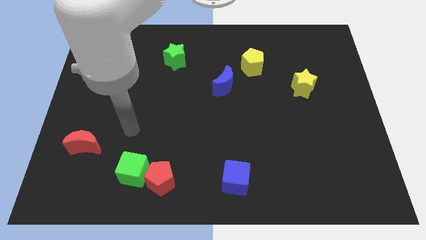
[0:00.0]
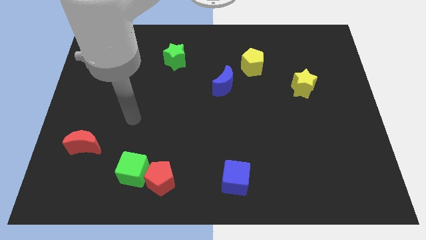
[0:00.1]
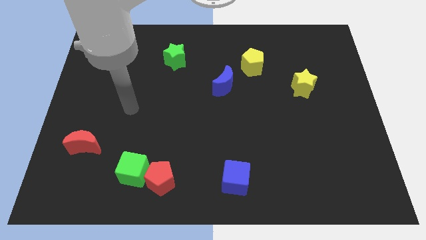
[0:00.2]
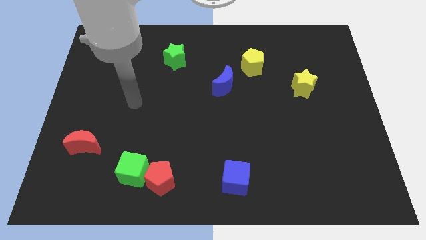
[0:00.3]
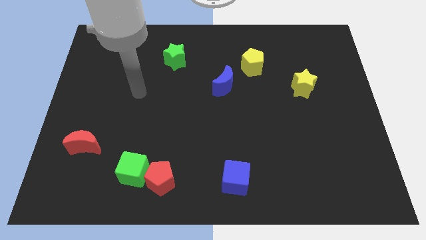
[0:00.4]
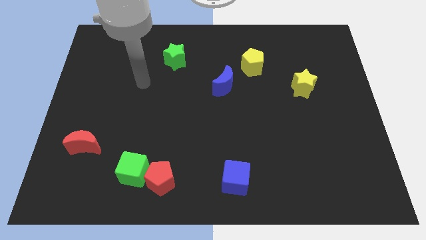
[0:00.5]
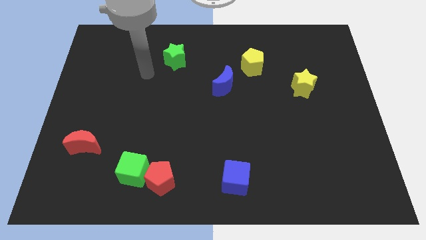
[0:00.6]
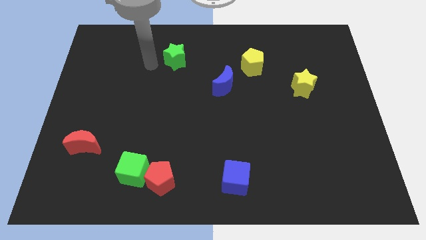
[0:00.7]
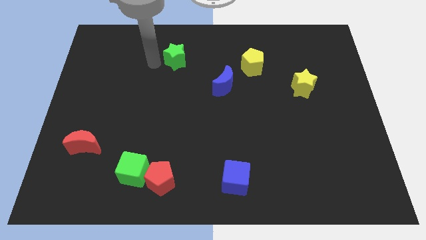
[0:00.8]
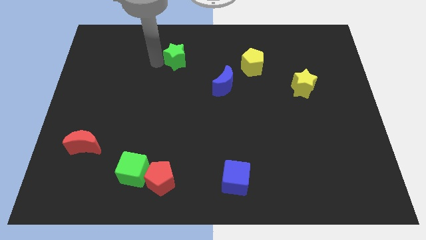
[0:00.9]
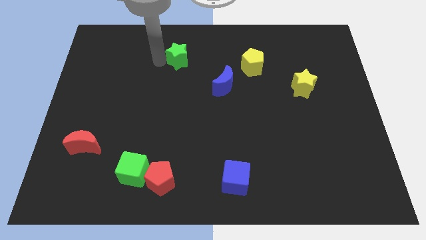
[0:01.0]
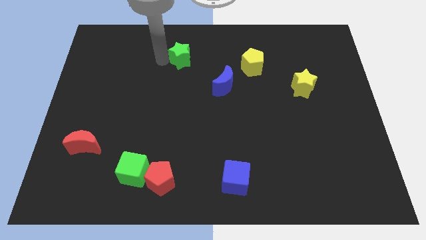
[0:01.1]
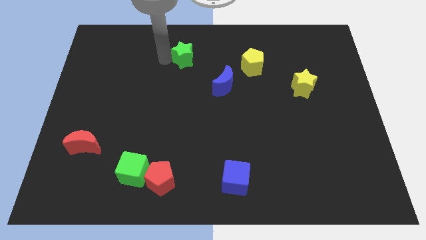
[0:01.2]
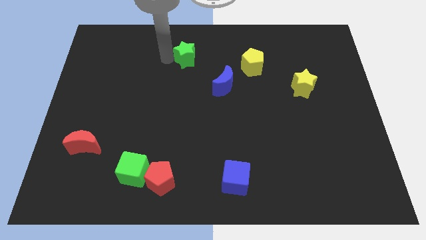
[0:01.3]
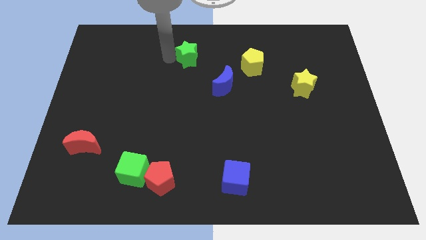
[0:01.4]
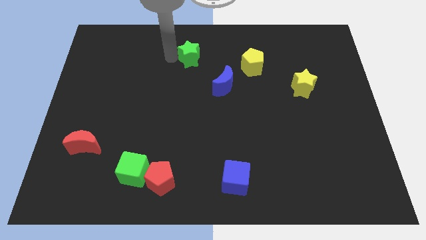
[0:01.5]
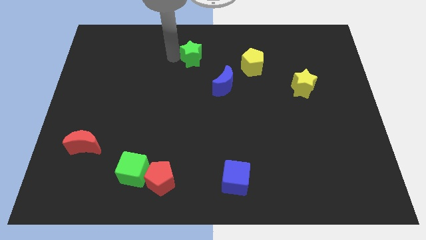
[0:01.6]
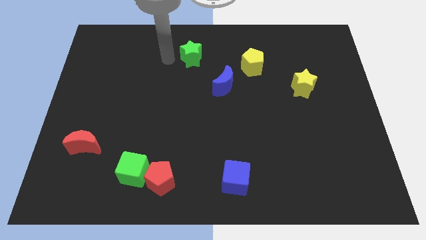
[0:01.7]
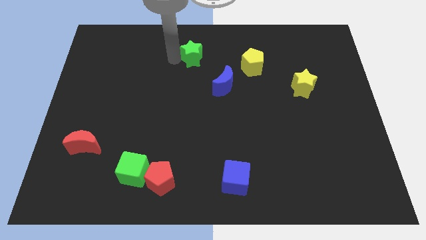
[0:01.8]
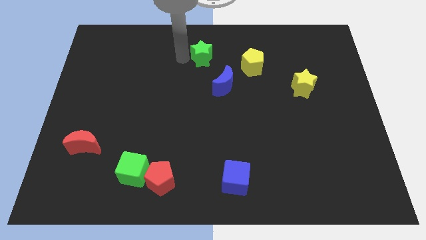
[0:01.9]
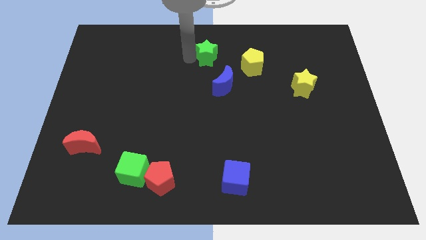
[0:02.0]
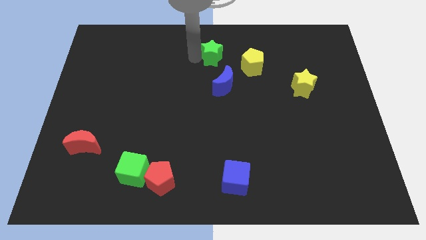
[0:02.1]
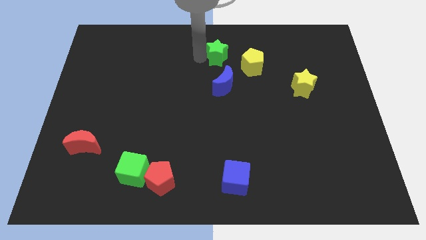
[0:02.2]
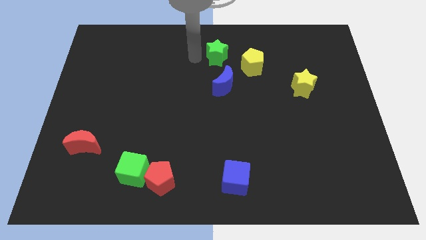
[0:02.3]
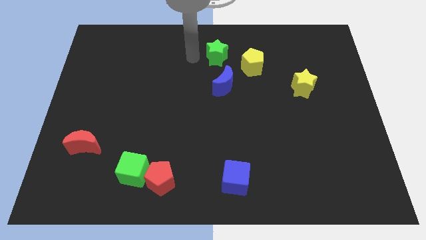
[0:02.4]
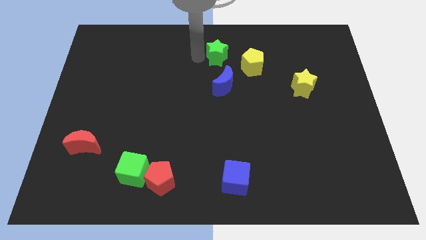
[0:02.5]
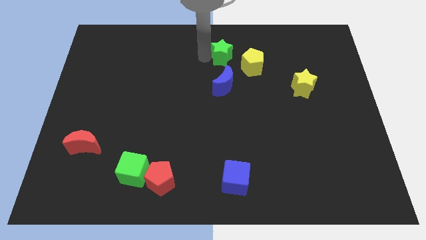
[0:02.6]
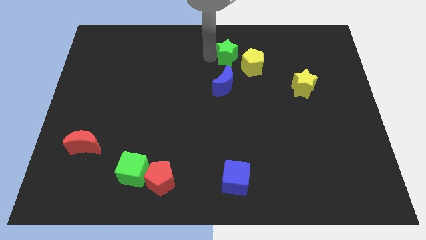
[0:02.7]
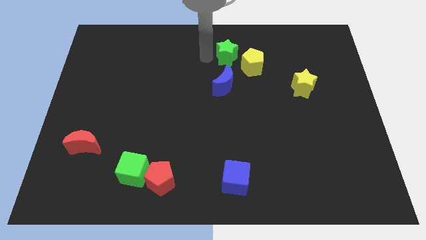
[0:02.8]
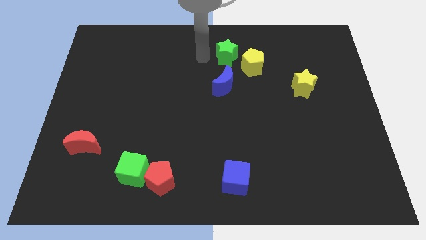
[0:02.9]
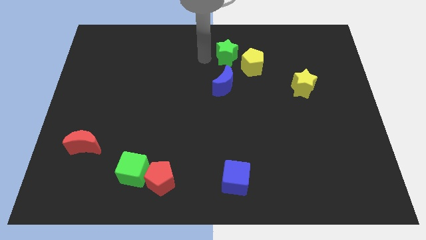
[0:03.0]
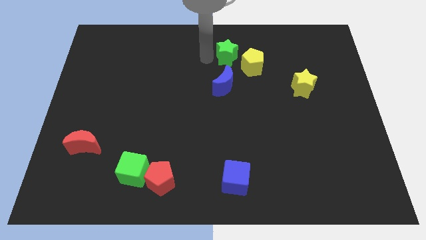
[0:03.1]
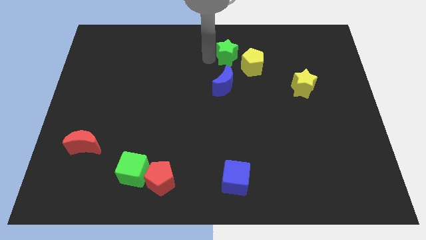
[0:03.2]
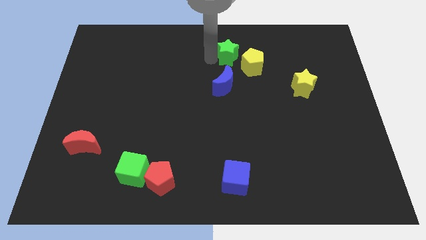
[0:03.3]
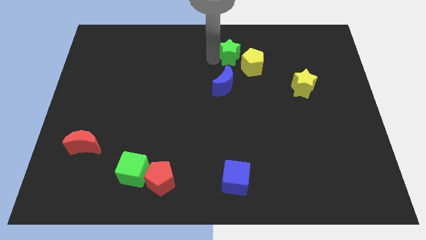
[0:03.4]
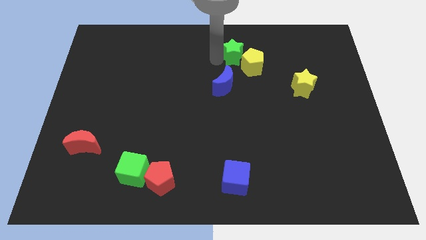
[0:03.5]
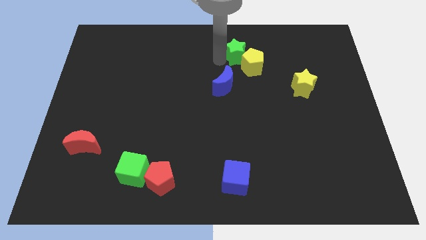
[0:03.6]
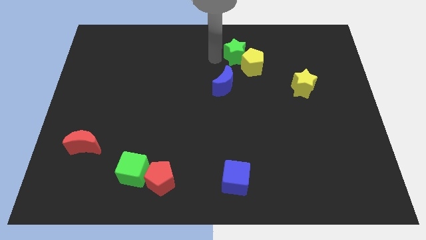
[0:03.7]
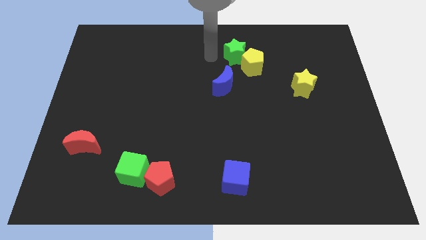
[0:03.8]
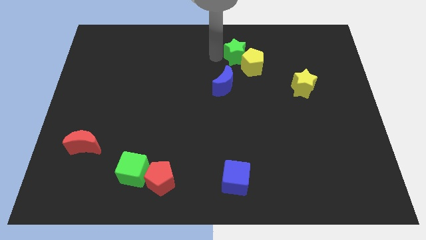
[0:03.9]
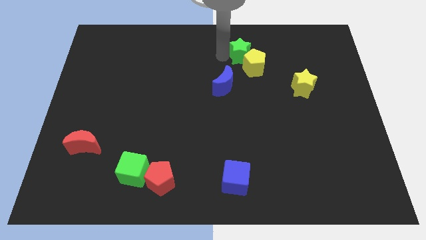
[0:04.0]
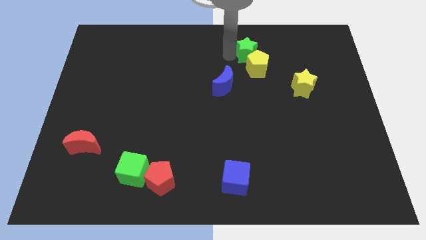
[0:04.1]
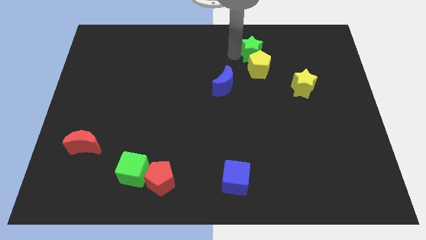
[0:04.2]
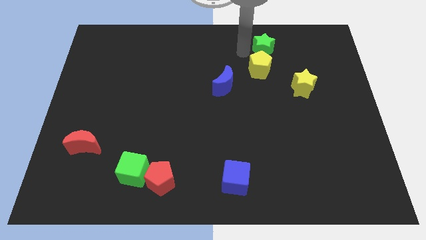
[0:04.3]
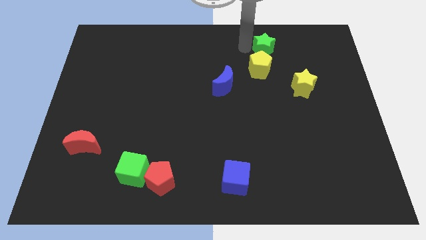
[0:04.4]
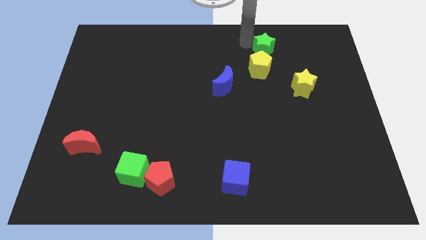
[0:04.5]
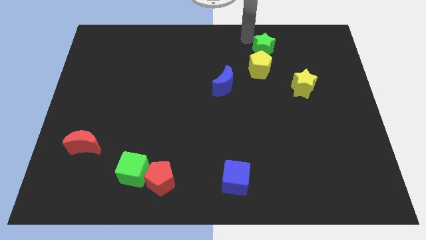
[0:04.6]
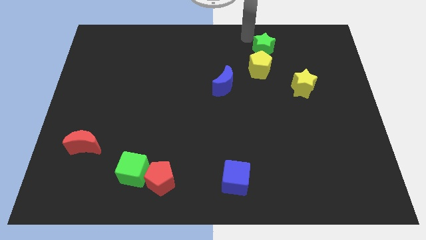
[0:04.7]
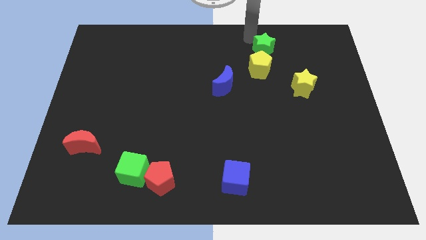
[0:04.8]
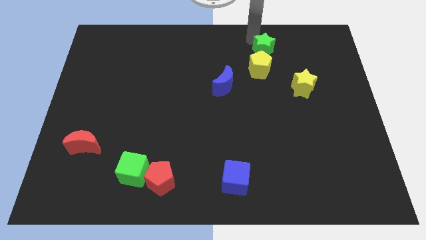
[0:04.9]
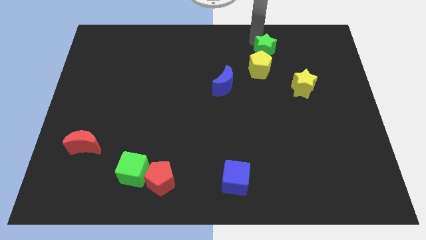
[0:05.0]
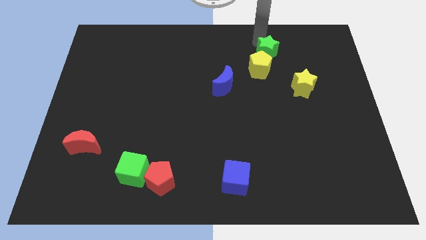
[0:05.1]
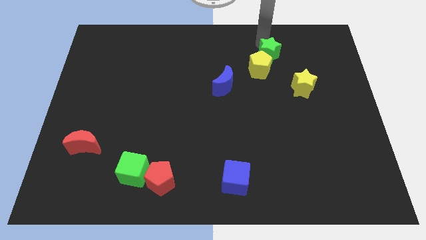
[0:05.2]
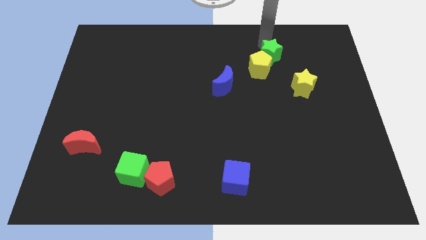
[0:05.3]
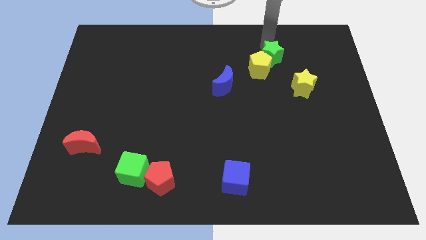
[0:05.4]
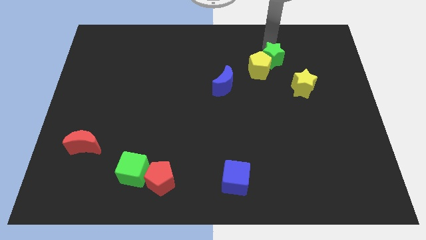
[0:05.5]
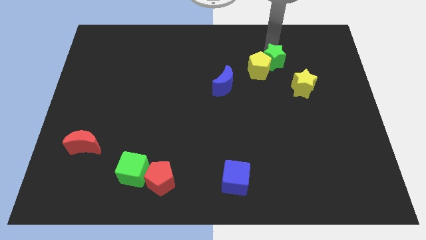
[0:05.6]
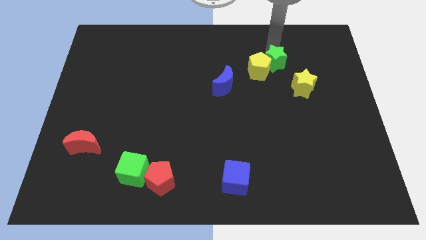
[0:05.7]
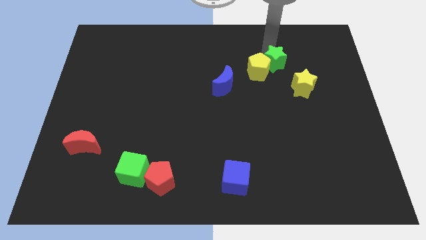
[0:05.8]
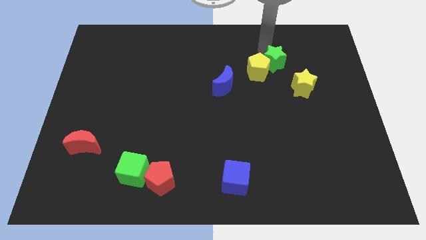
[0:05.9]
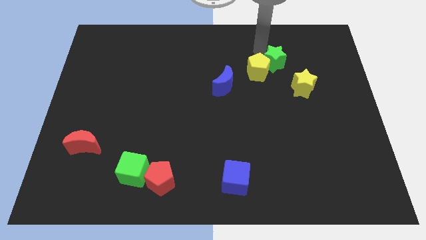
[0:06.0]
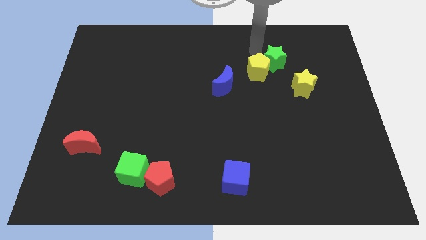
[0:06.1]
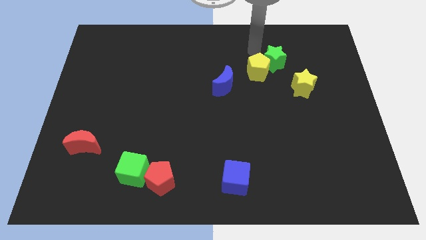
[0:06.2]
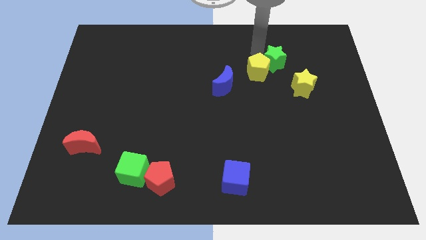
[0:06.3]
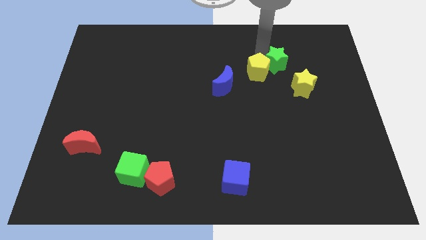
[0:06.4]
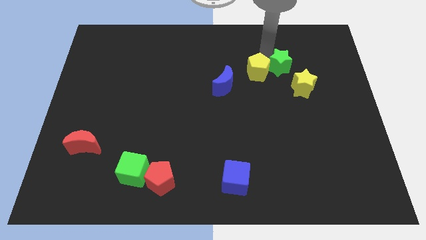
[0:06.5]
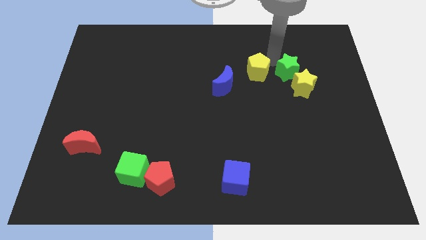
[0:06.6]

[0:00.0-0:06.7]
move the green star close to the yellow star
